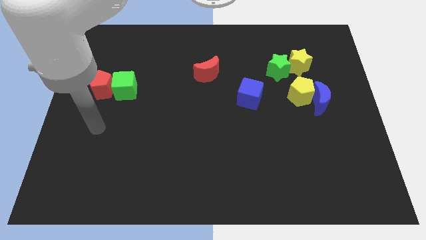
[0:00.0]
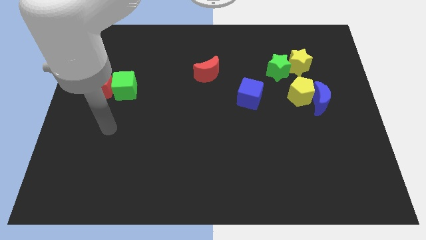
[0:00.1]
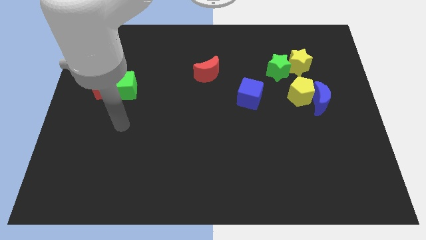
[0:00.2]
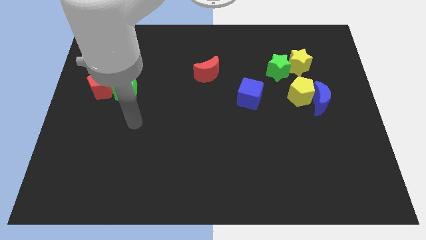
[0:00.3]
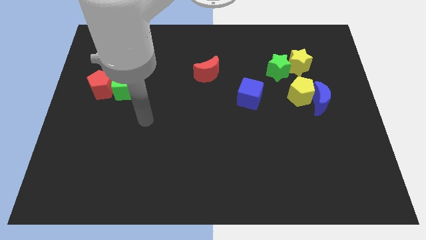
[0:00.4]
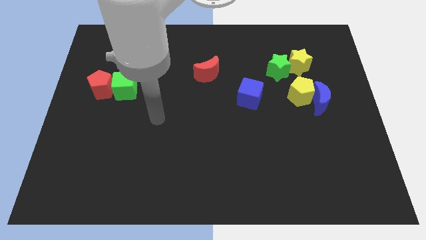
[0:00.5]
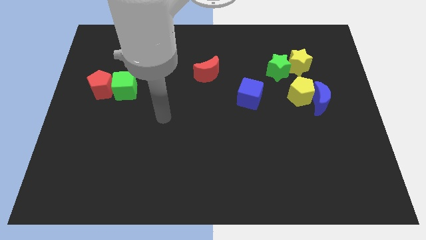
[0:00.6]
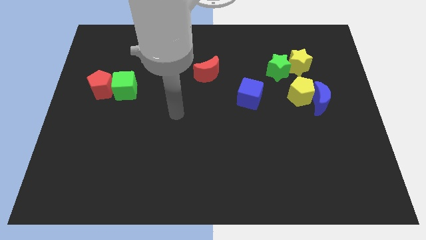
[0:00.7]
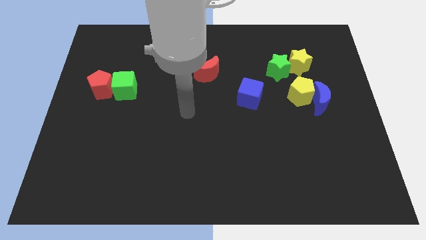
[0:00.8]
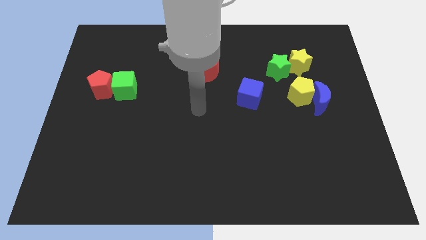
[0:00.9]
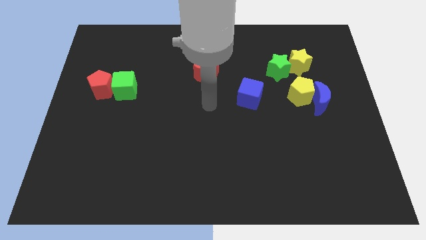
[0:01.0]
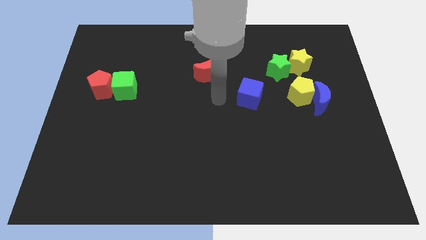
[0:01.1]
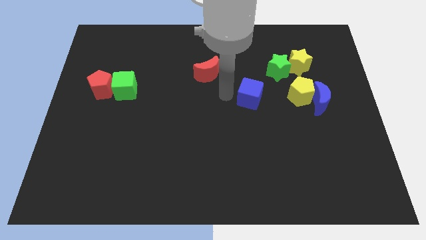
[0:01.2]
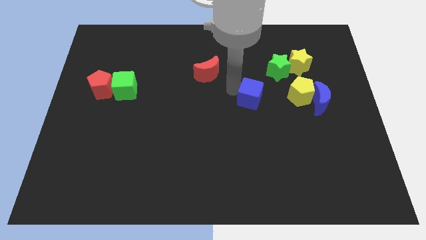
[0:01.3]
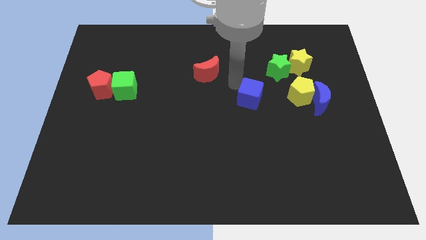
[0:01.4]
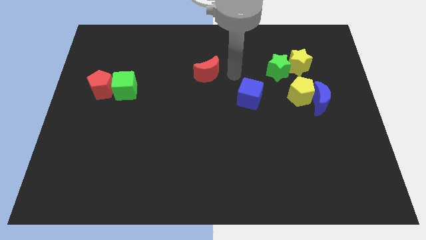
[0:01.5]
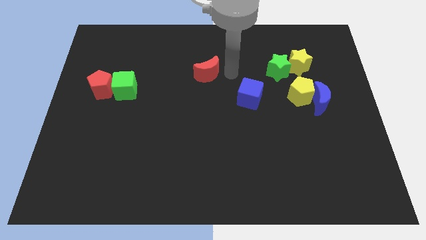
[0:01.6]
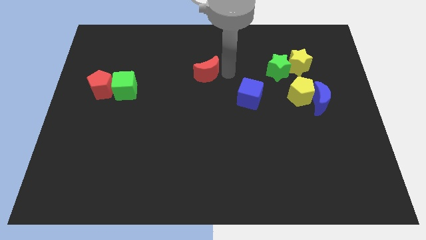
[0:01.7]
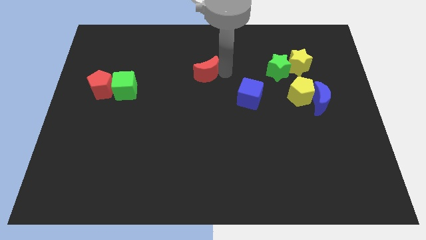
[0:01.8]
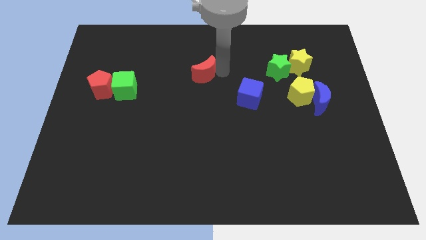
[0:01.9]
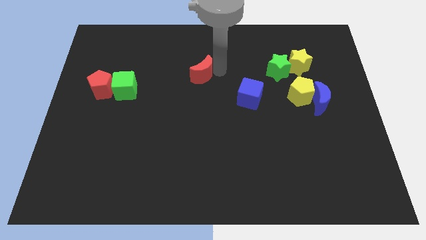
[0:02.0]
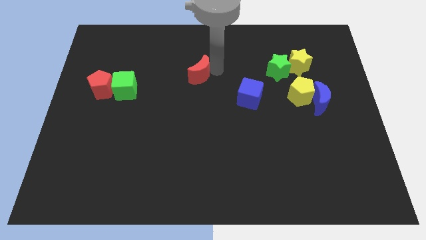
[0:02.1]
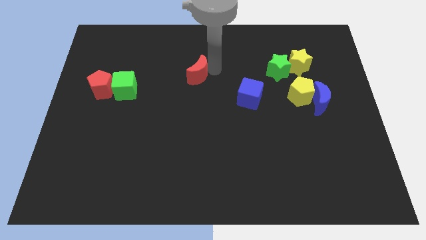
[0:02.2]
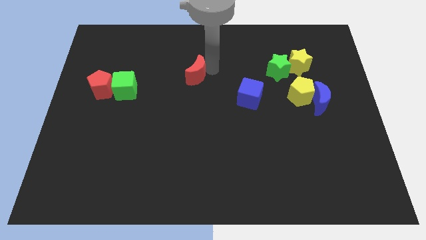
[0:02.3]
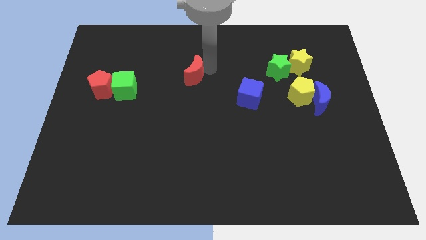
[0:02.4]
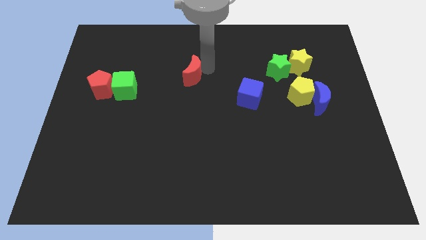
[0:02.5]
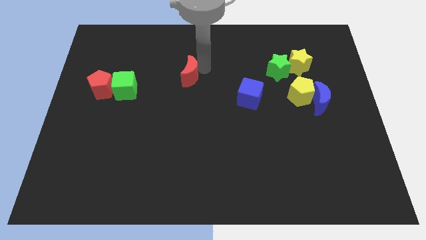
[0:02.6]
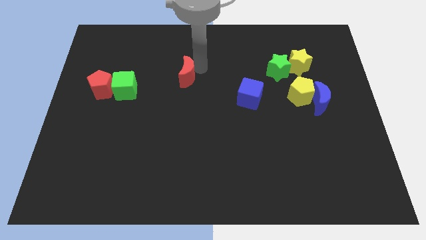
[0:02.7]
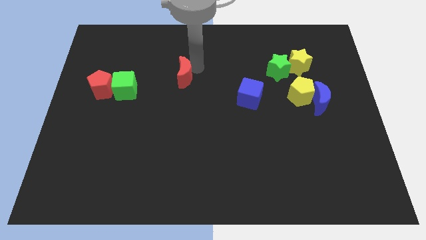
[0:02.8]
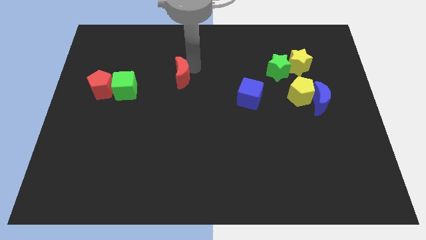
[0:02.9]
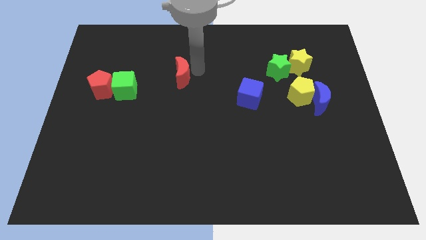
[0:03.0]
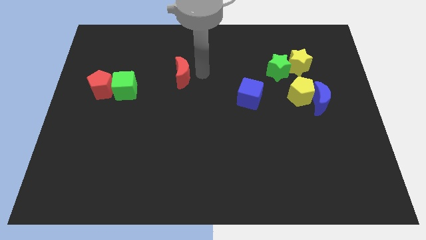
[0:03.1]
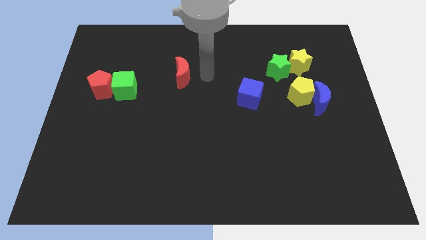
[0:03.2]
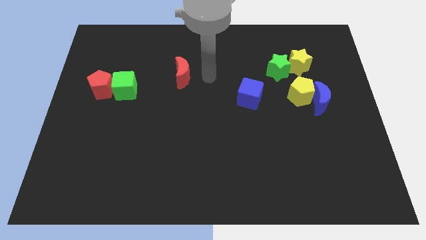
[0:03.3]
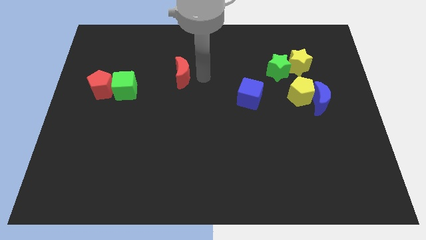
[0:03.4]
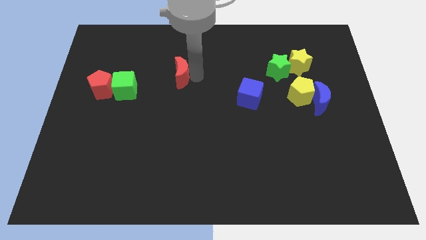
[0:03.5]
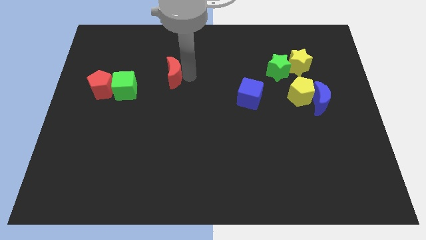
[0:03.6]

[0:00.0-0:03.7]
push the red moon a little bit left

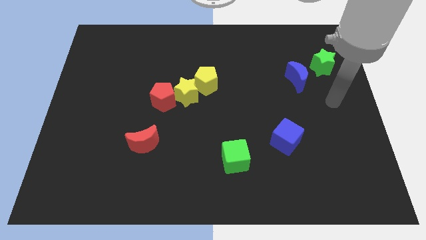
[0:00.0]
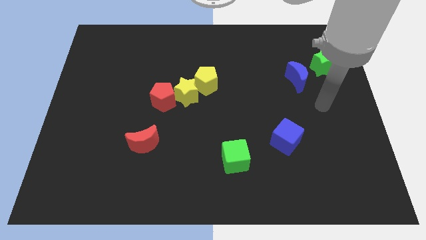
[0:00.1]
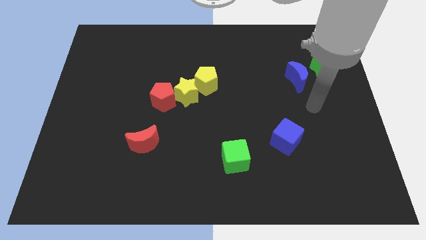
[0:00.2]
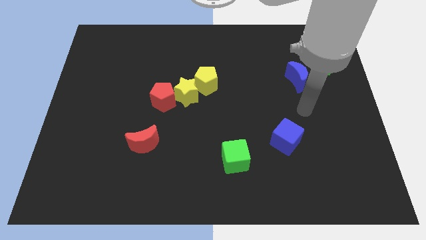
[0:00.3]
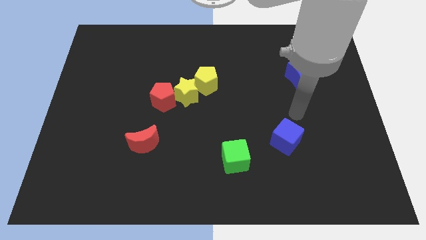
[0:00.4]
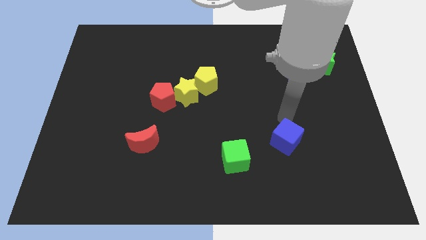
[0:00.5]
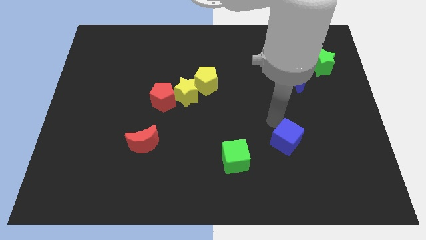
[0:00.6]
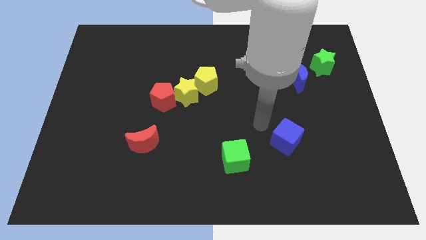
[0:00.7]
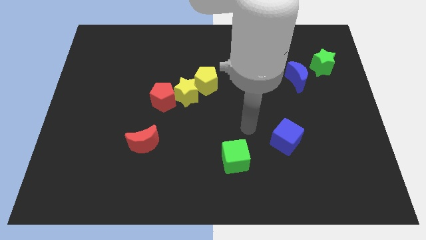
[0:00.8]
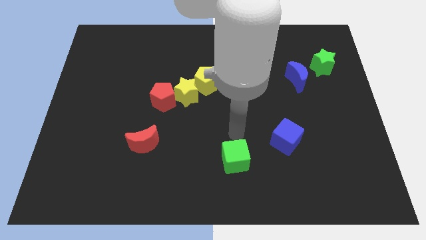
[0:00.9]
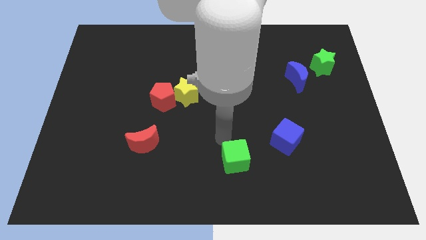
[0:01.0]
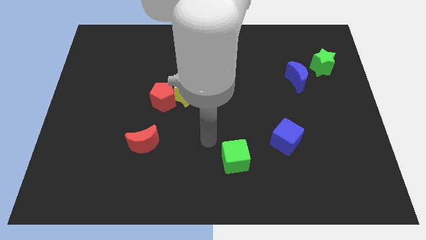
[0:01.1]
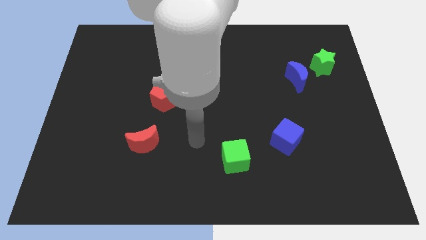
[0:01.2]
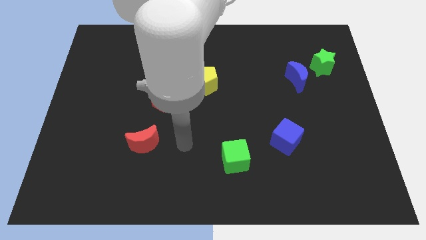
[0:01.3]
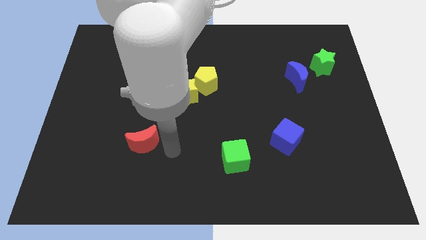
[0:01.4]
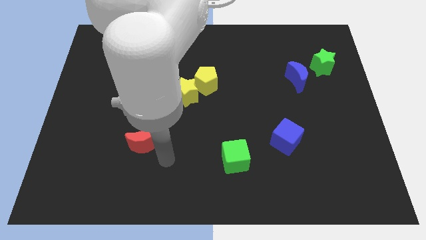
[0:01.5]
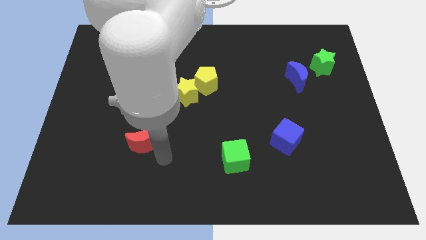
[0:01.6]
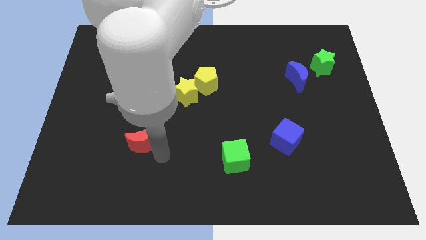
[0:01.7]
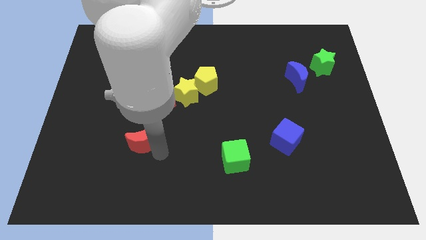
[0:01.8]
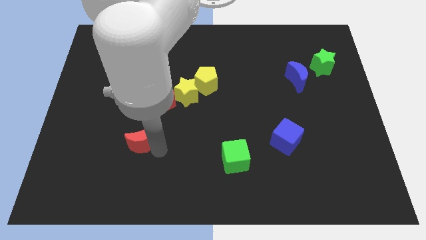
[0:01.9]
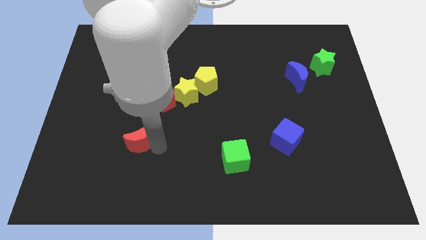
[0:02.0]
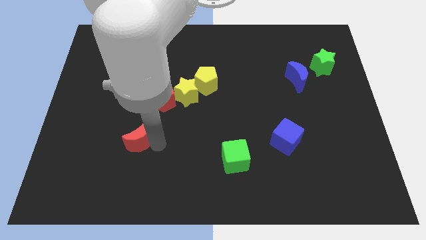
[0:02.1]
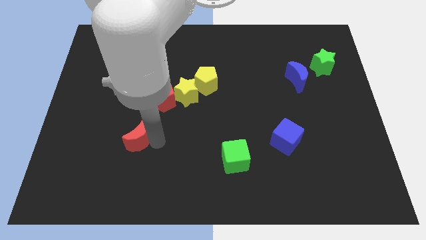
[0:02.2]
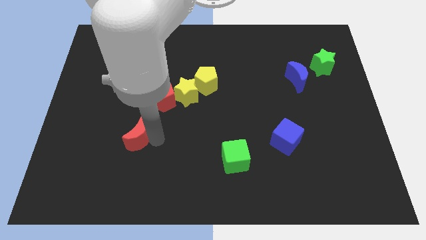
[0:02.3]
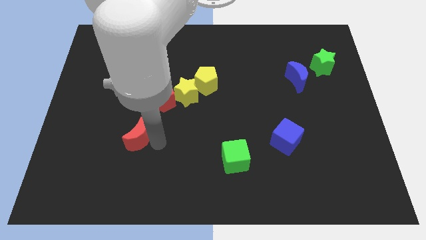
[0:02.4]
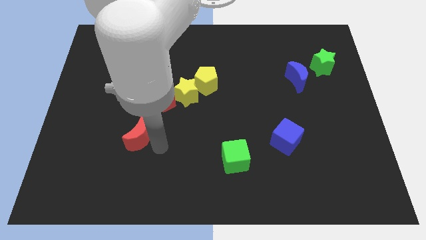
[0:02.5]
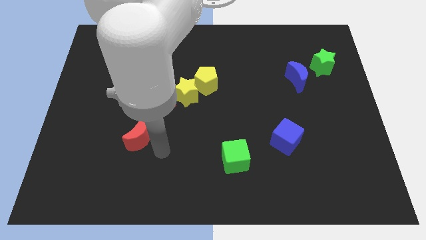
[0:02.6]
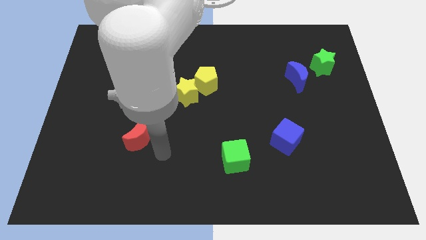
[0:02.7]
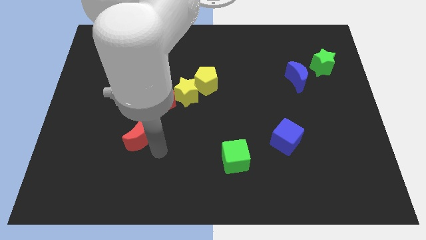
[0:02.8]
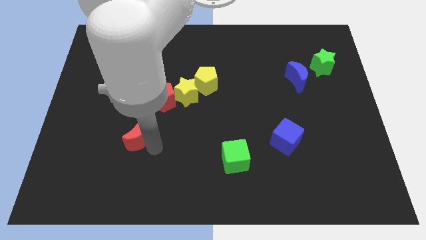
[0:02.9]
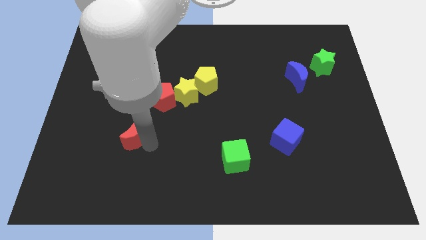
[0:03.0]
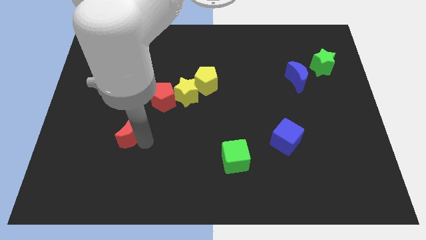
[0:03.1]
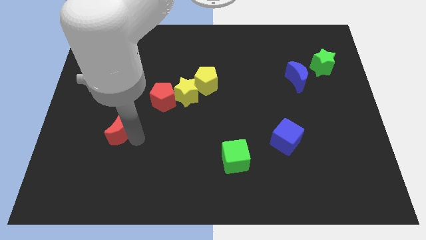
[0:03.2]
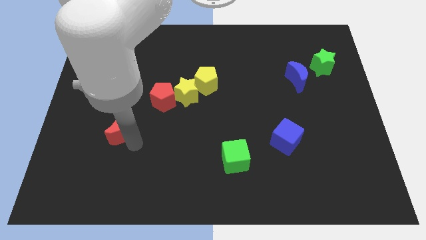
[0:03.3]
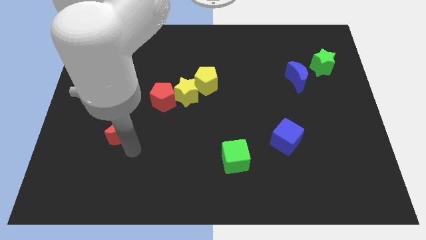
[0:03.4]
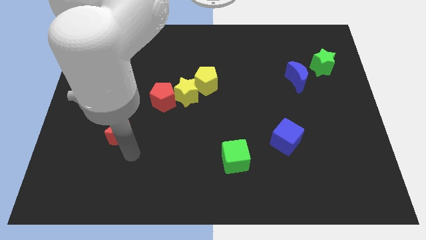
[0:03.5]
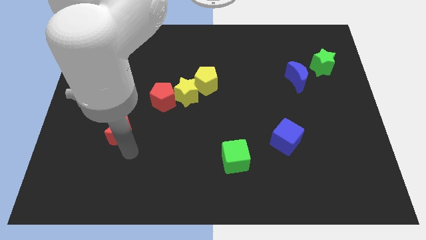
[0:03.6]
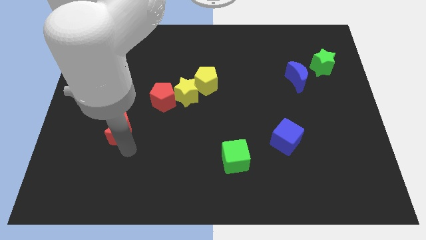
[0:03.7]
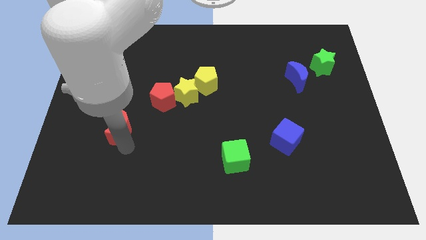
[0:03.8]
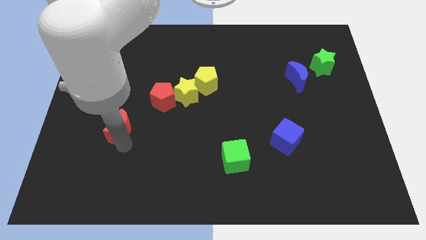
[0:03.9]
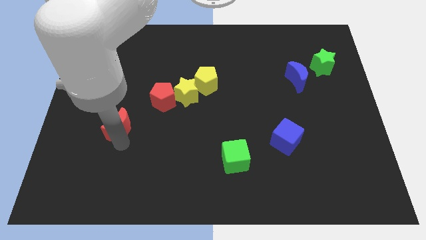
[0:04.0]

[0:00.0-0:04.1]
slightly move the red moon up and to the left diagonally

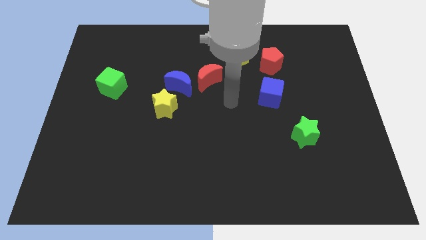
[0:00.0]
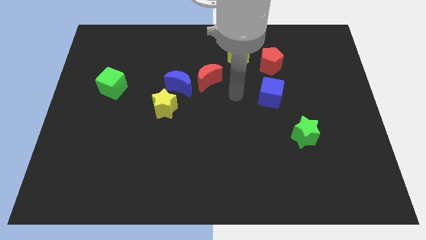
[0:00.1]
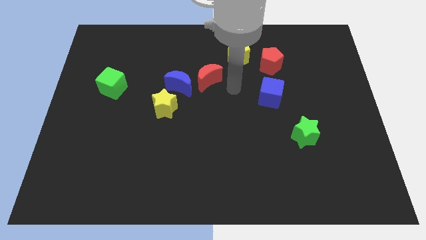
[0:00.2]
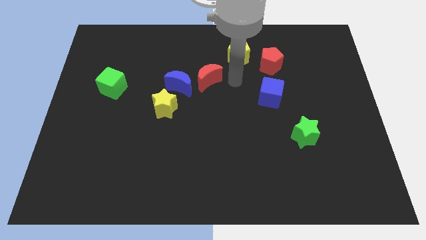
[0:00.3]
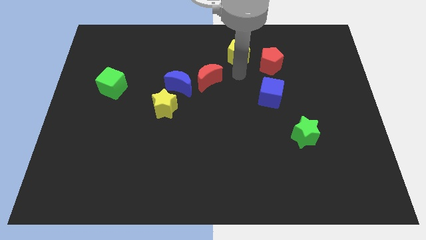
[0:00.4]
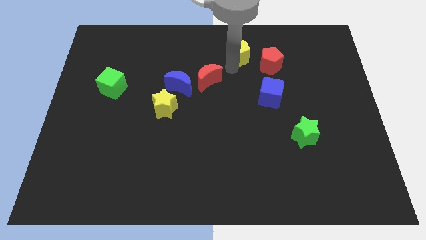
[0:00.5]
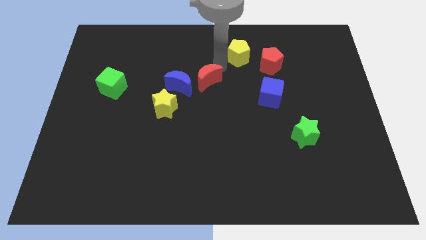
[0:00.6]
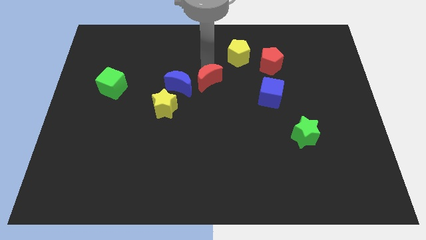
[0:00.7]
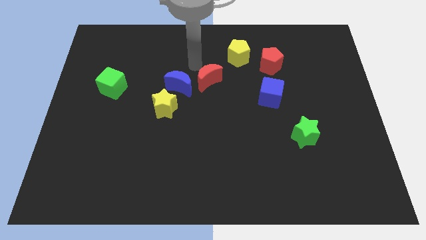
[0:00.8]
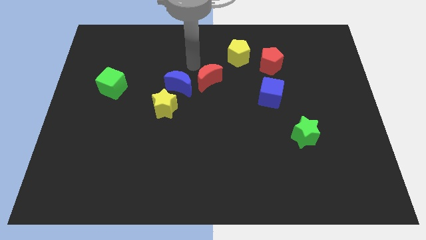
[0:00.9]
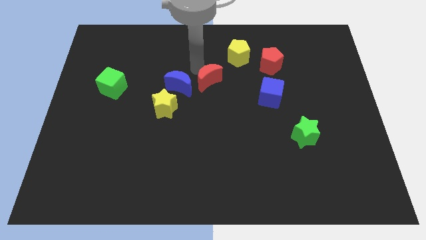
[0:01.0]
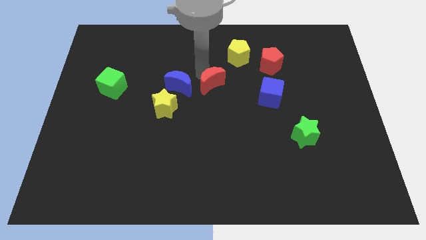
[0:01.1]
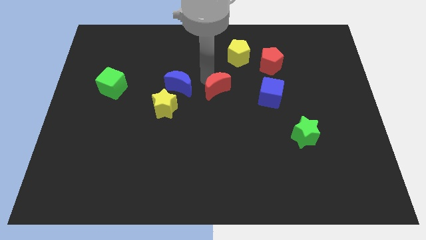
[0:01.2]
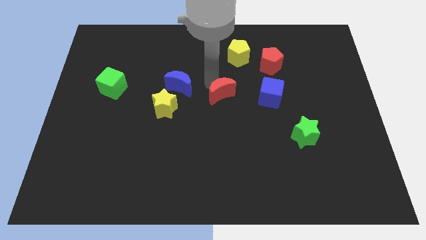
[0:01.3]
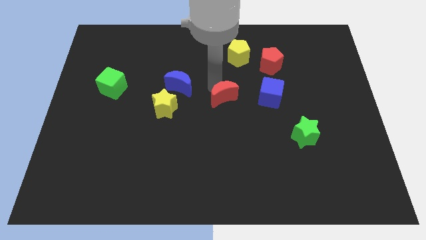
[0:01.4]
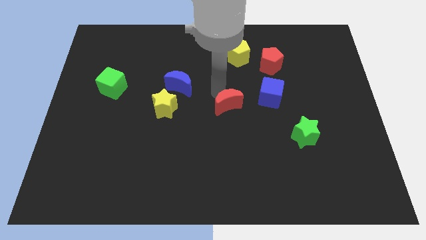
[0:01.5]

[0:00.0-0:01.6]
slightly push the red moon down and to the right
